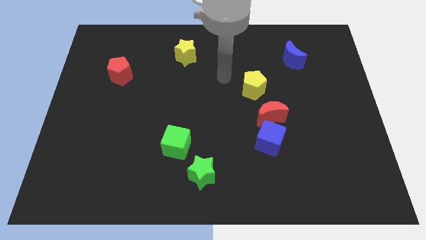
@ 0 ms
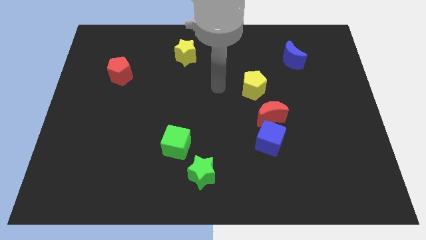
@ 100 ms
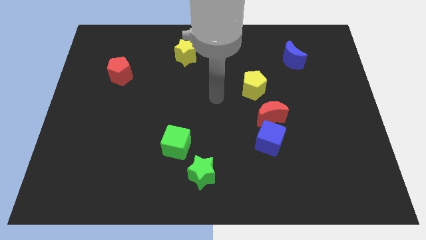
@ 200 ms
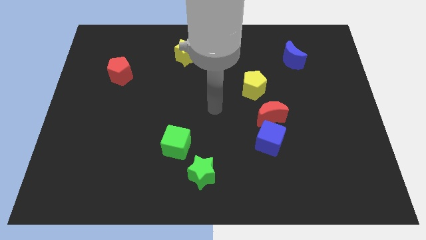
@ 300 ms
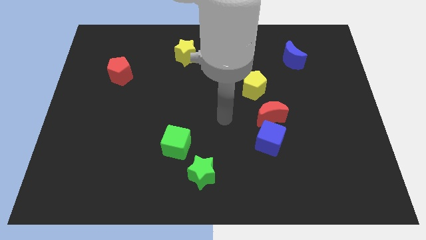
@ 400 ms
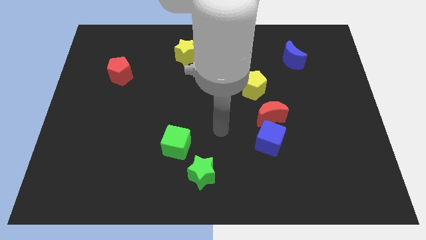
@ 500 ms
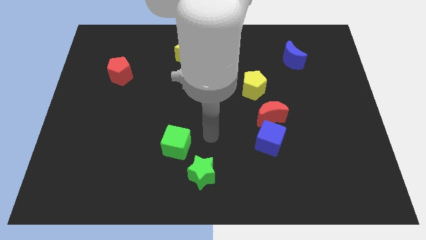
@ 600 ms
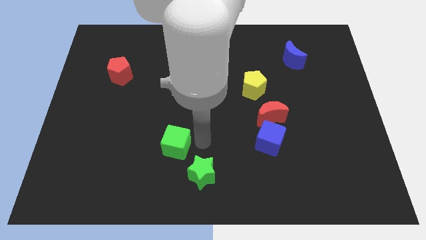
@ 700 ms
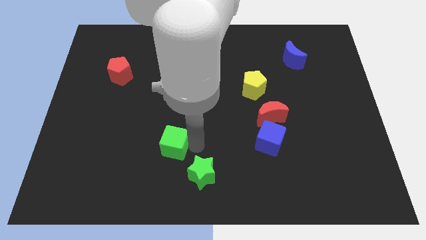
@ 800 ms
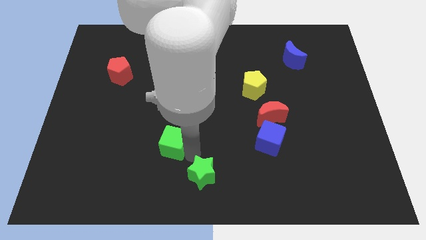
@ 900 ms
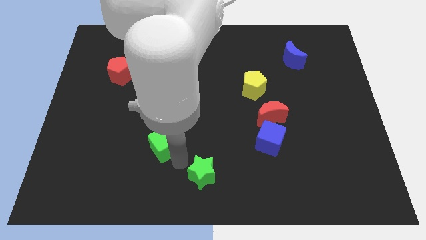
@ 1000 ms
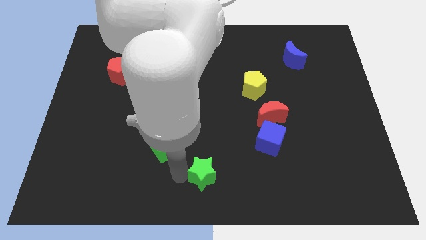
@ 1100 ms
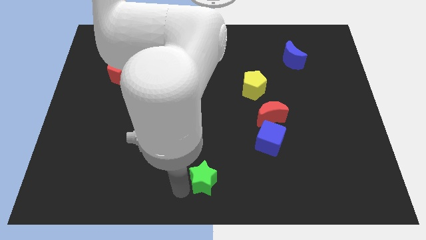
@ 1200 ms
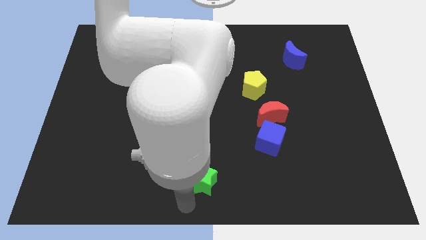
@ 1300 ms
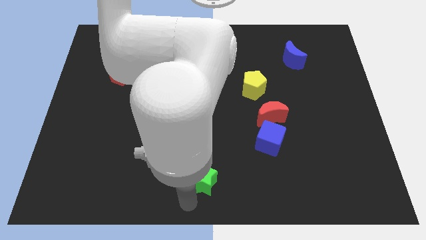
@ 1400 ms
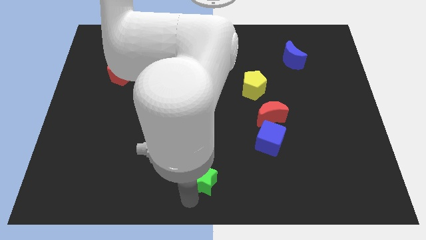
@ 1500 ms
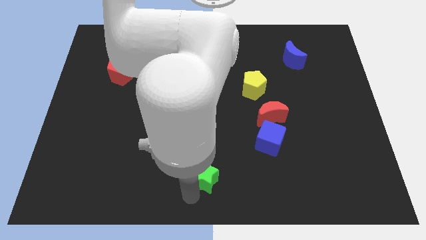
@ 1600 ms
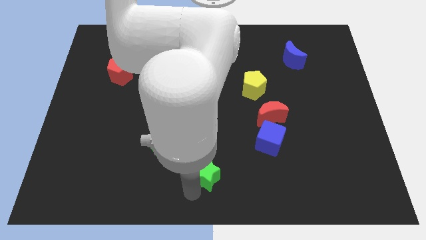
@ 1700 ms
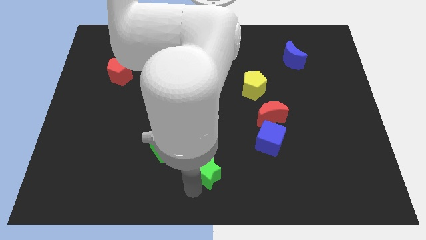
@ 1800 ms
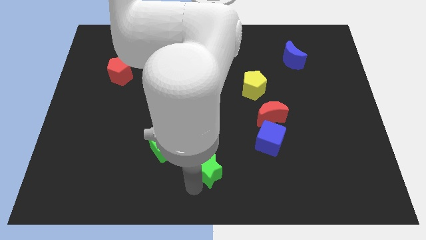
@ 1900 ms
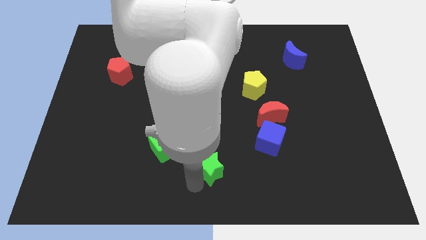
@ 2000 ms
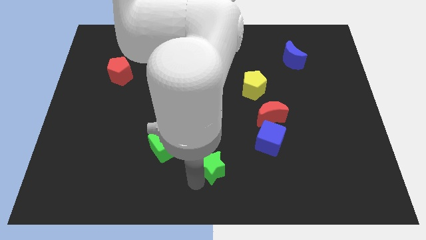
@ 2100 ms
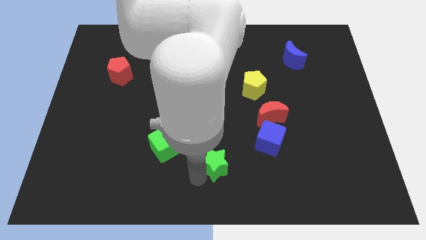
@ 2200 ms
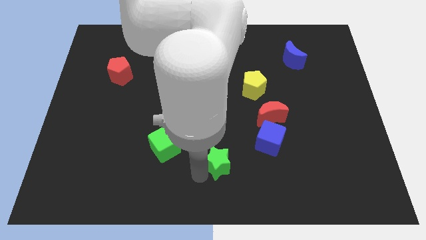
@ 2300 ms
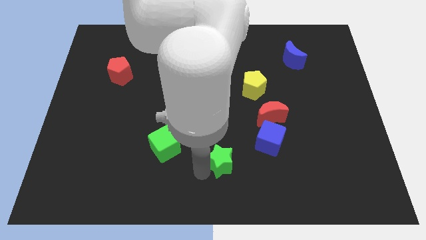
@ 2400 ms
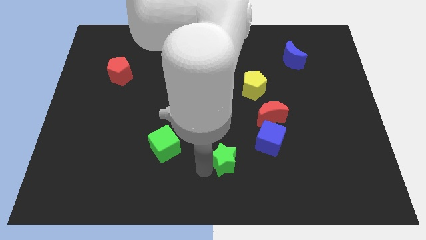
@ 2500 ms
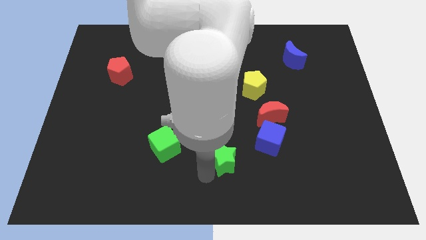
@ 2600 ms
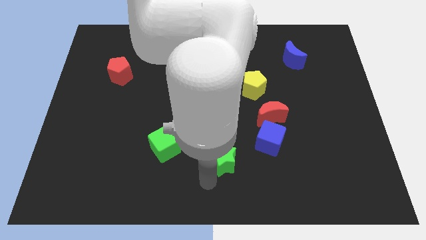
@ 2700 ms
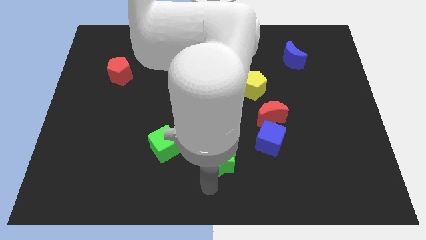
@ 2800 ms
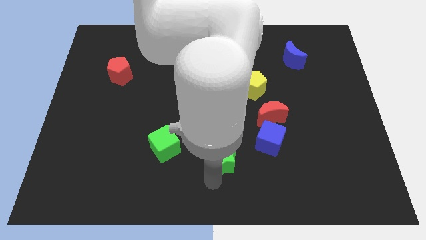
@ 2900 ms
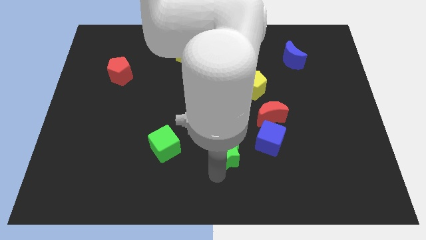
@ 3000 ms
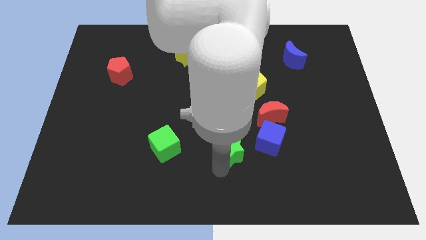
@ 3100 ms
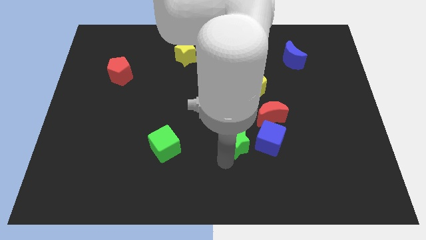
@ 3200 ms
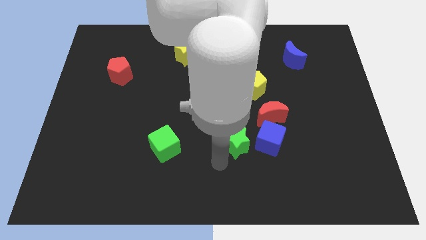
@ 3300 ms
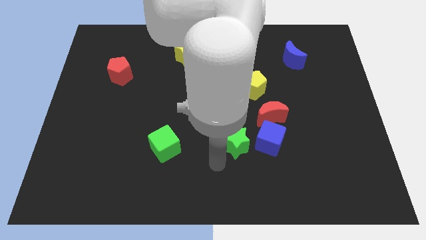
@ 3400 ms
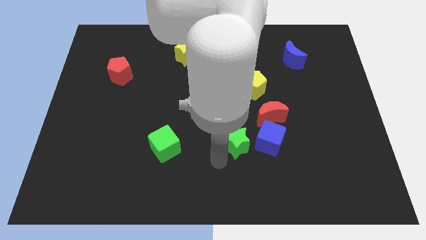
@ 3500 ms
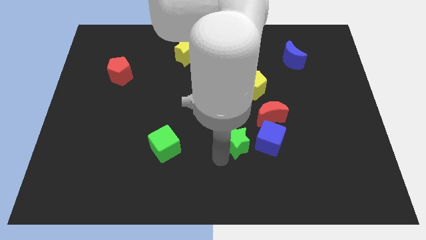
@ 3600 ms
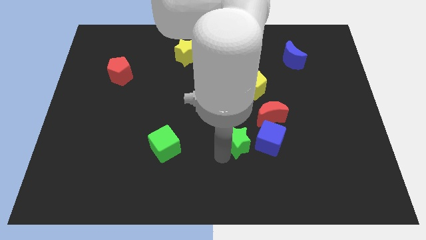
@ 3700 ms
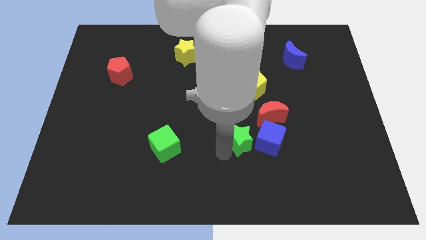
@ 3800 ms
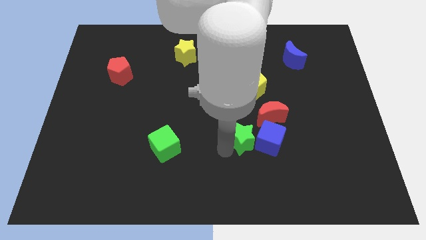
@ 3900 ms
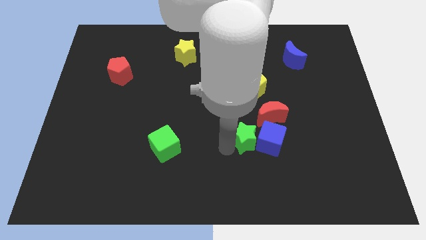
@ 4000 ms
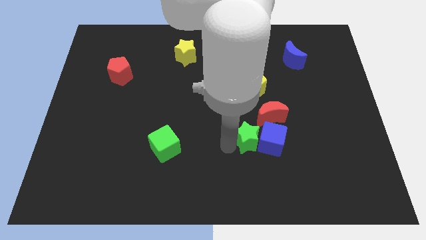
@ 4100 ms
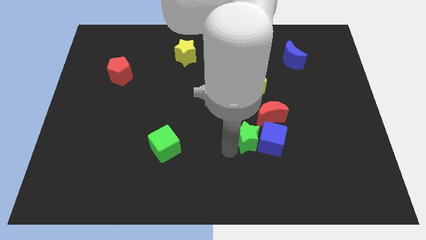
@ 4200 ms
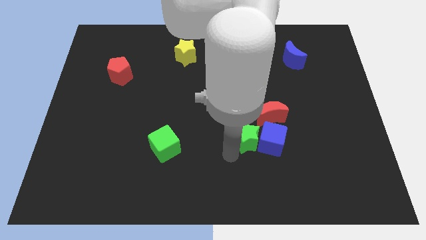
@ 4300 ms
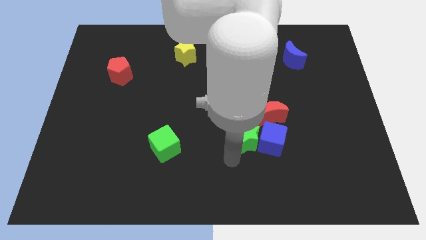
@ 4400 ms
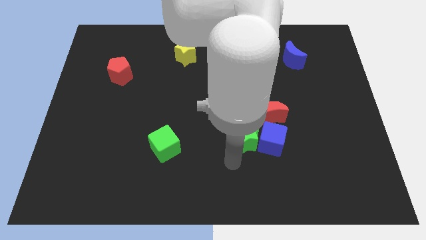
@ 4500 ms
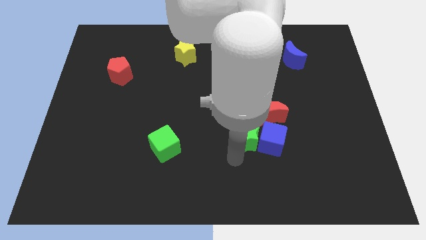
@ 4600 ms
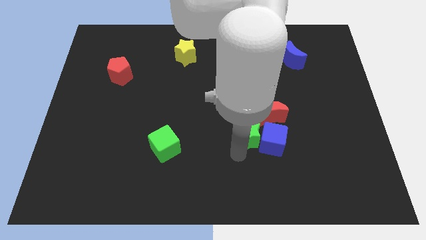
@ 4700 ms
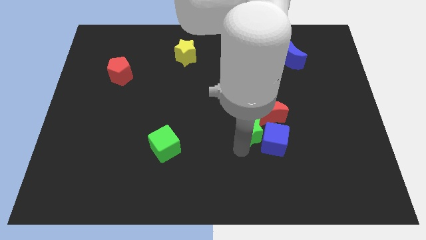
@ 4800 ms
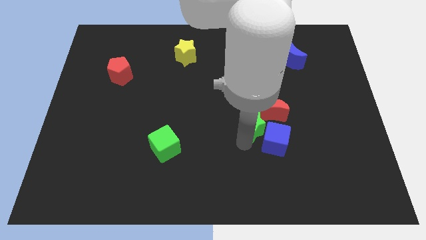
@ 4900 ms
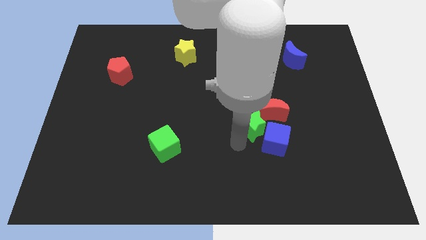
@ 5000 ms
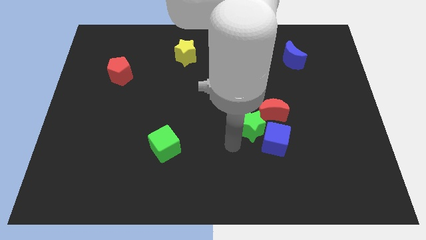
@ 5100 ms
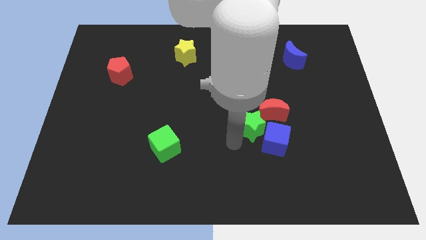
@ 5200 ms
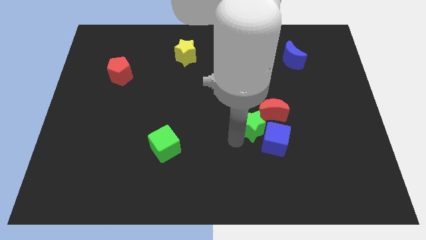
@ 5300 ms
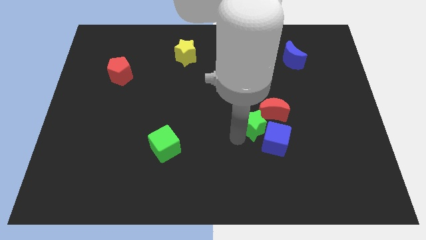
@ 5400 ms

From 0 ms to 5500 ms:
slide the green star close to the red moon

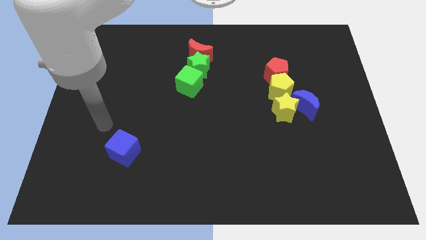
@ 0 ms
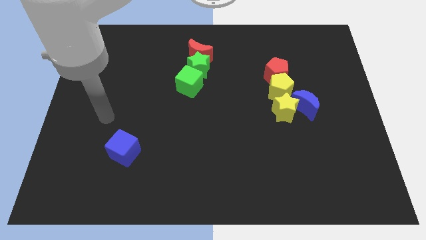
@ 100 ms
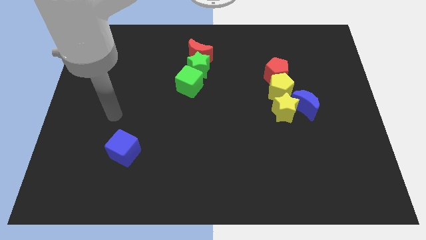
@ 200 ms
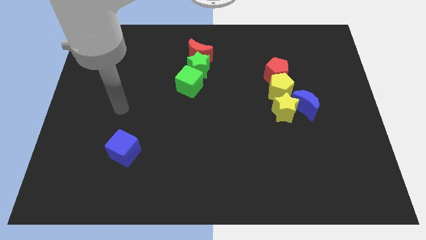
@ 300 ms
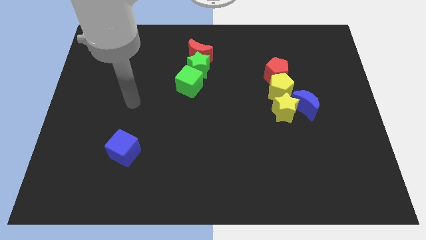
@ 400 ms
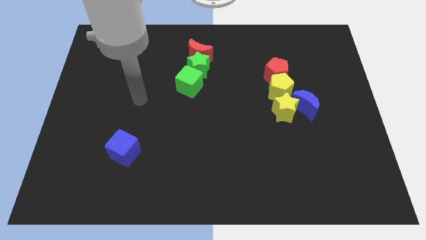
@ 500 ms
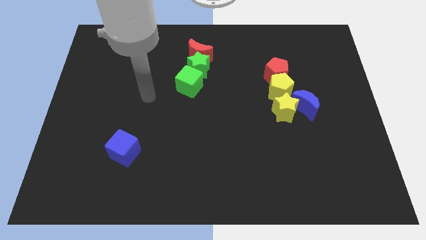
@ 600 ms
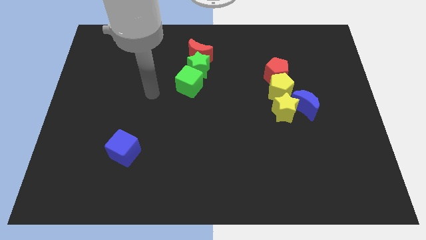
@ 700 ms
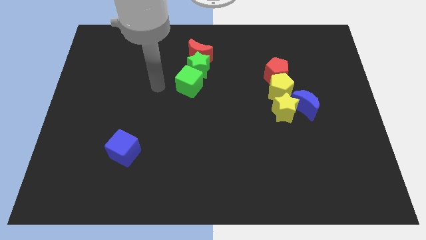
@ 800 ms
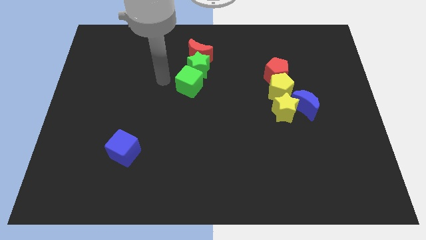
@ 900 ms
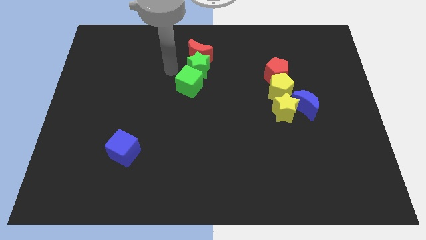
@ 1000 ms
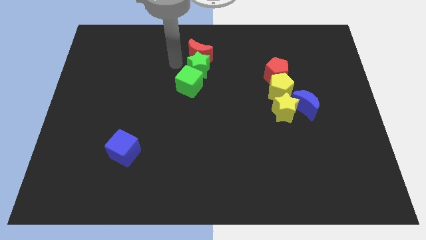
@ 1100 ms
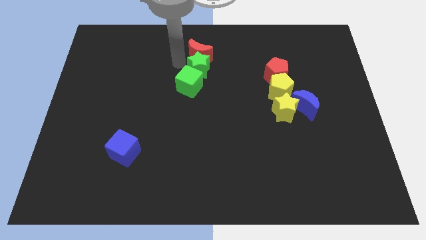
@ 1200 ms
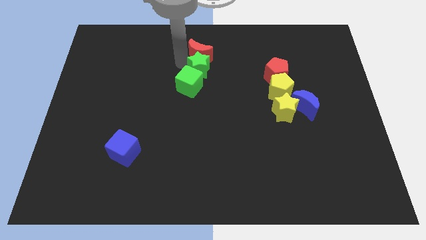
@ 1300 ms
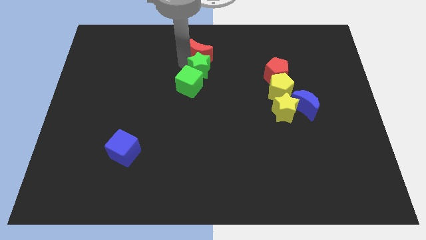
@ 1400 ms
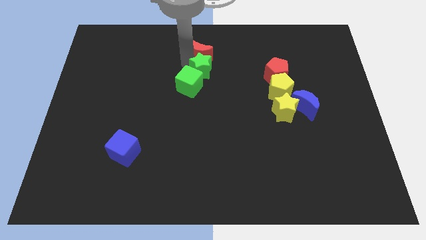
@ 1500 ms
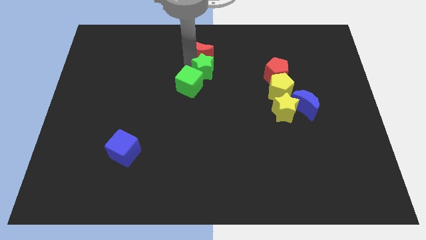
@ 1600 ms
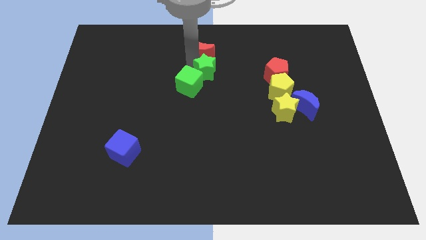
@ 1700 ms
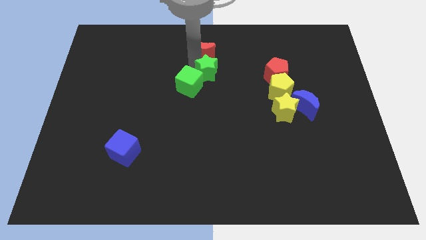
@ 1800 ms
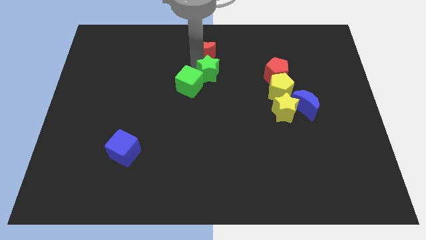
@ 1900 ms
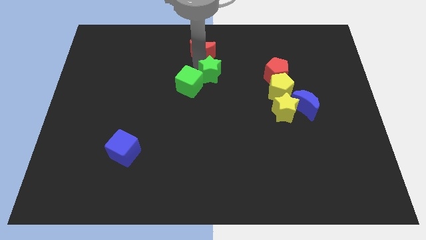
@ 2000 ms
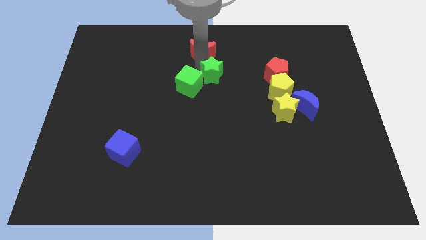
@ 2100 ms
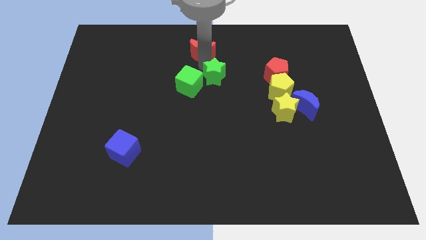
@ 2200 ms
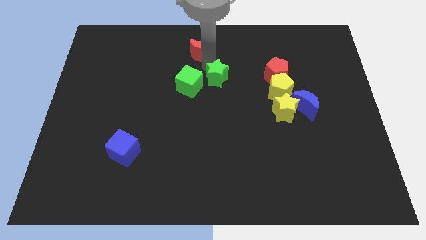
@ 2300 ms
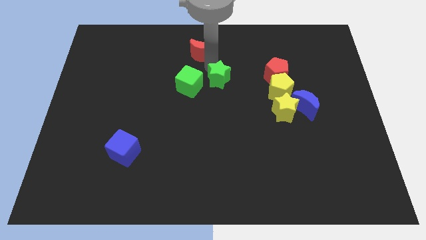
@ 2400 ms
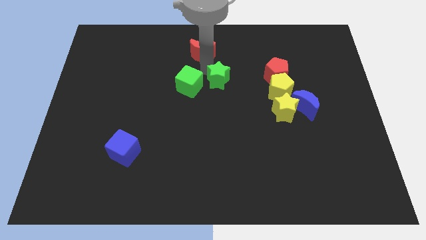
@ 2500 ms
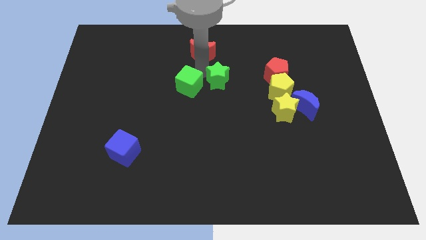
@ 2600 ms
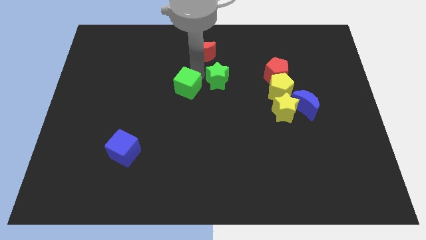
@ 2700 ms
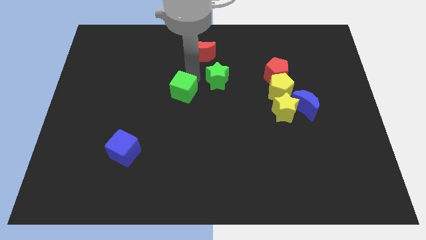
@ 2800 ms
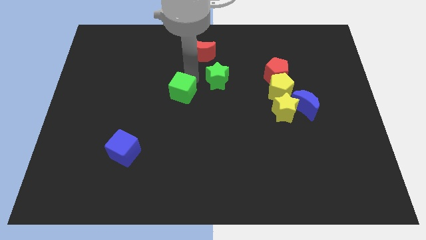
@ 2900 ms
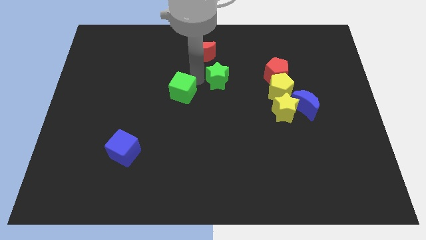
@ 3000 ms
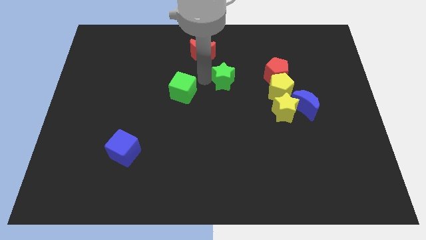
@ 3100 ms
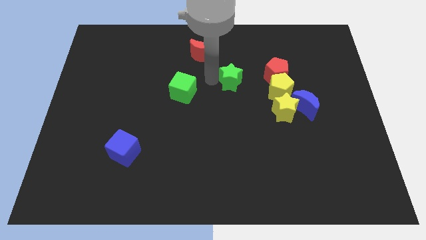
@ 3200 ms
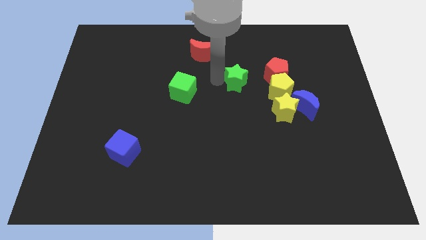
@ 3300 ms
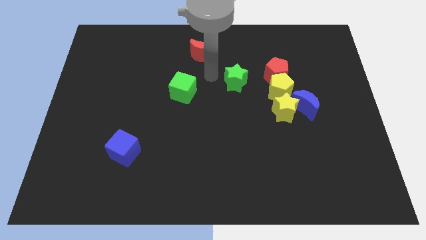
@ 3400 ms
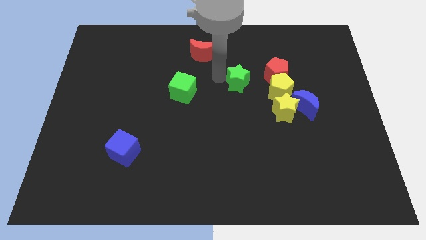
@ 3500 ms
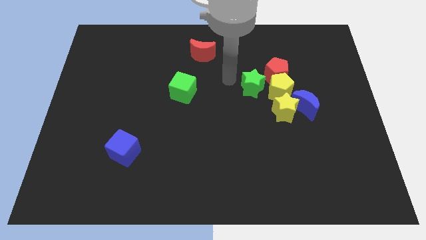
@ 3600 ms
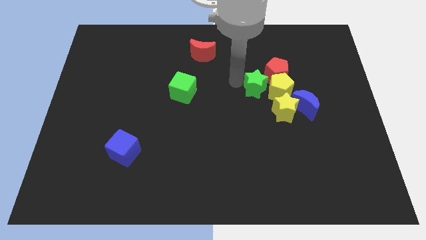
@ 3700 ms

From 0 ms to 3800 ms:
put the green star next to the yellow pentagon
